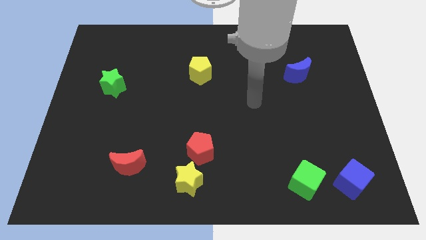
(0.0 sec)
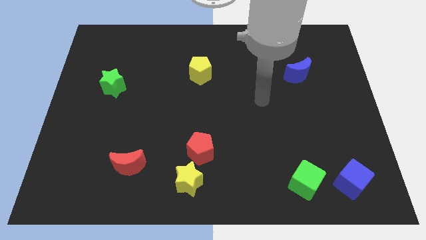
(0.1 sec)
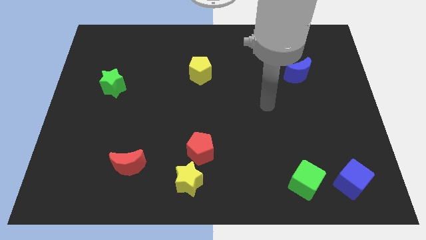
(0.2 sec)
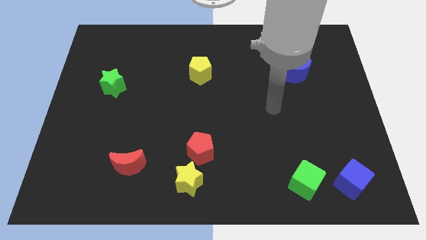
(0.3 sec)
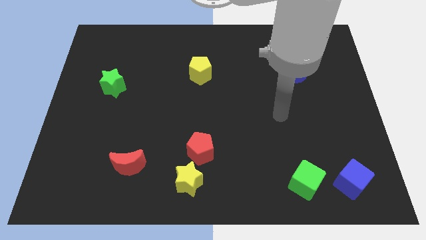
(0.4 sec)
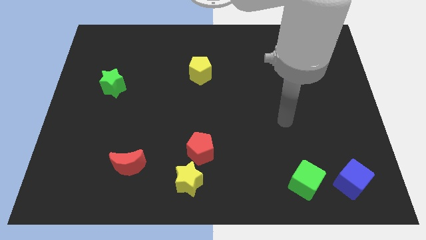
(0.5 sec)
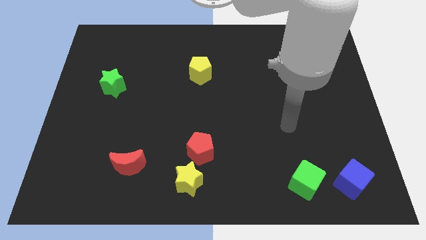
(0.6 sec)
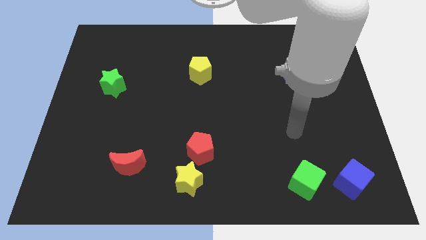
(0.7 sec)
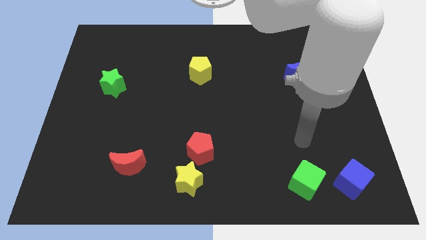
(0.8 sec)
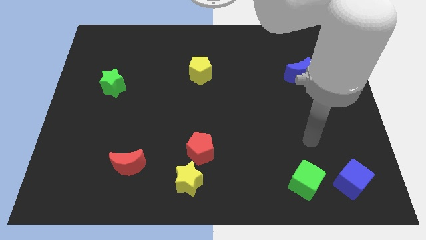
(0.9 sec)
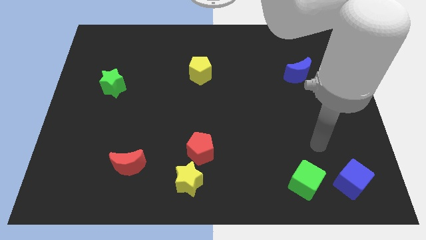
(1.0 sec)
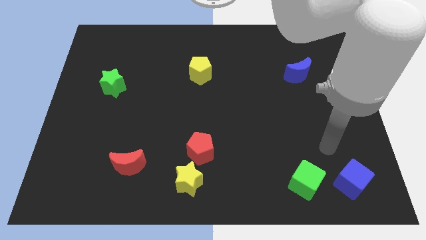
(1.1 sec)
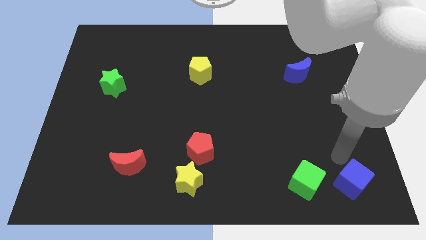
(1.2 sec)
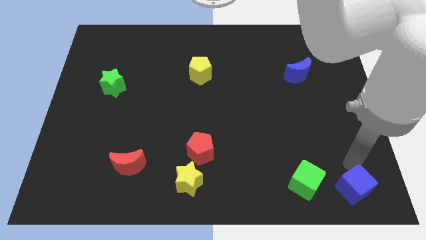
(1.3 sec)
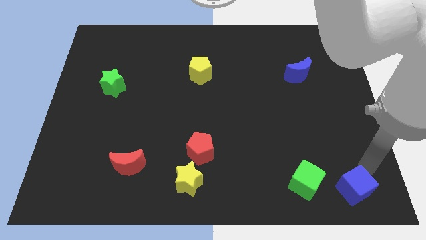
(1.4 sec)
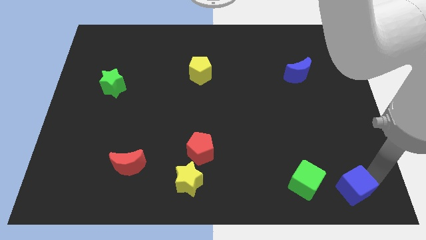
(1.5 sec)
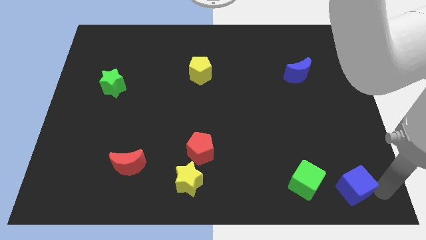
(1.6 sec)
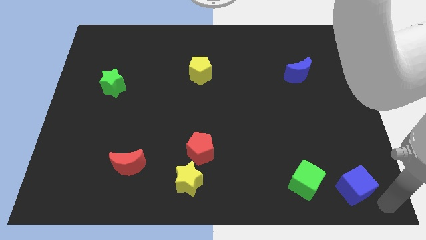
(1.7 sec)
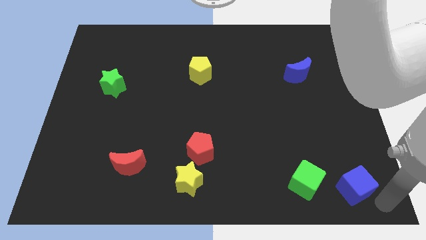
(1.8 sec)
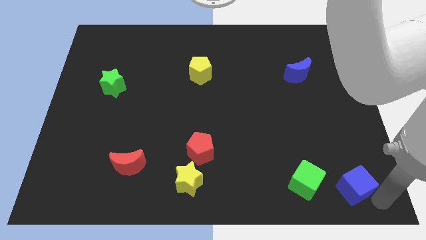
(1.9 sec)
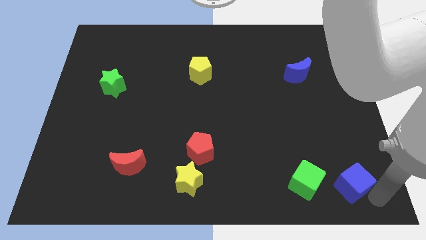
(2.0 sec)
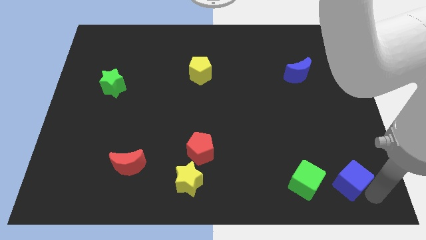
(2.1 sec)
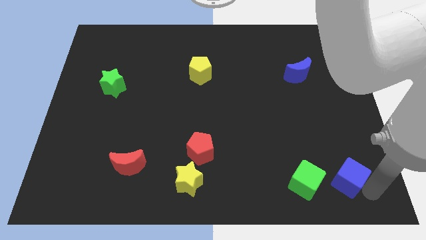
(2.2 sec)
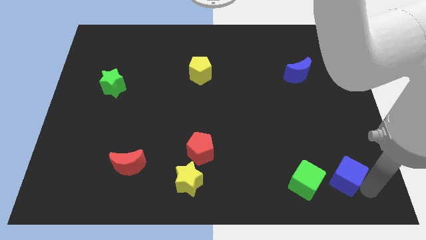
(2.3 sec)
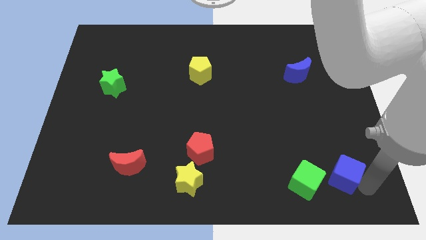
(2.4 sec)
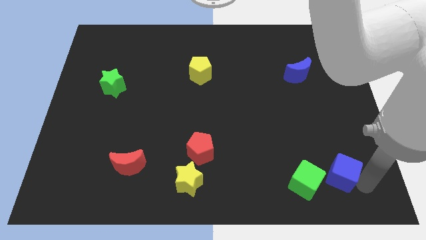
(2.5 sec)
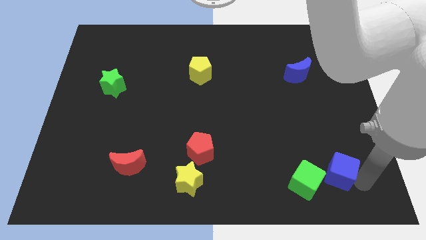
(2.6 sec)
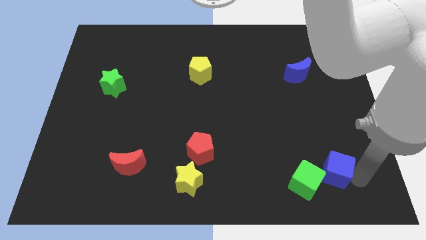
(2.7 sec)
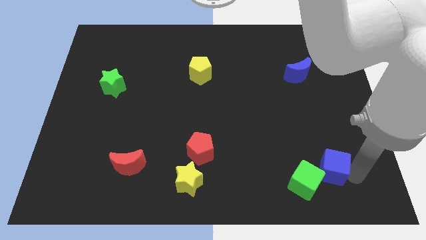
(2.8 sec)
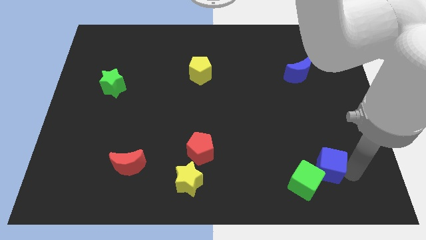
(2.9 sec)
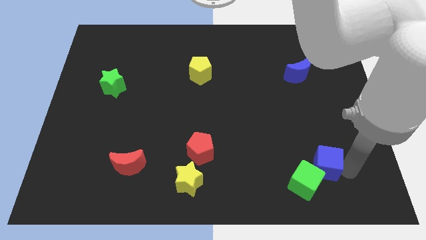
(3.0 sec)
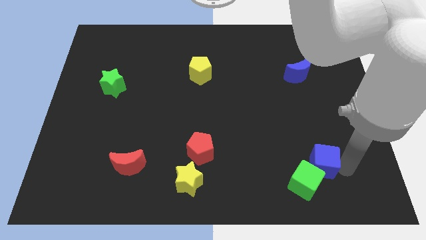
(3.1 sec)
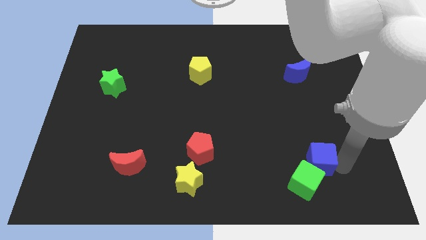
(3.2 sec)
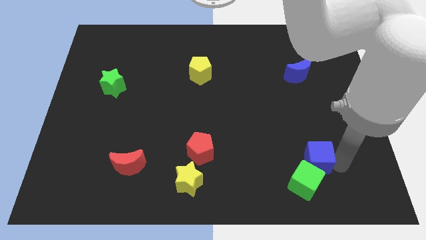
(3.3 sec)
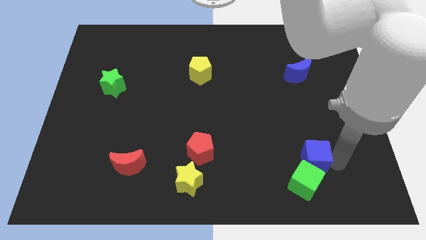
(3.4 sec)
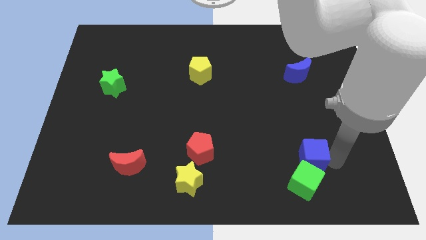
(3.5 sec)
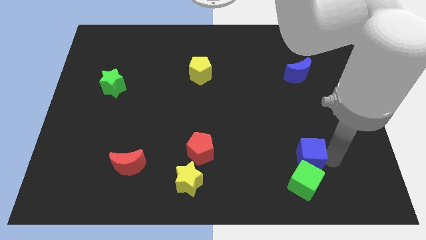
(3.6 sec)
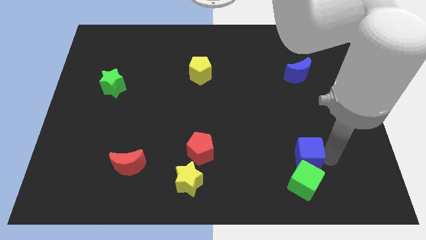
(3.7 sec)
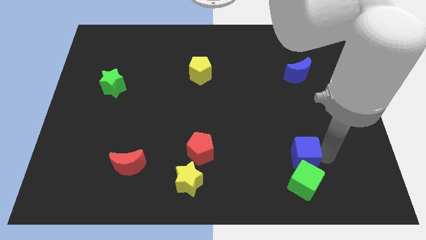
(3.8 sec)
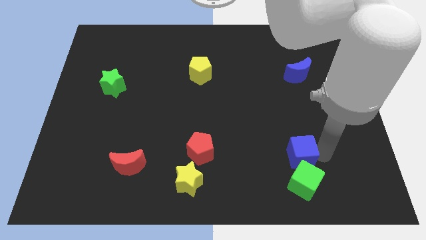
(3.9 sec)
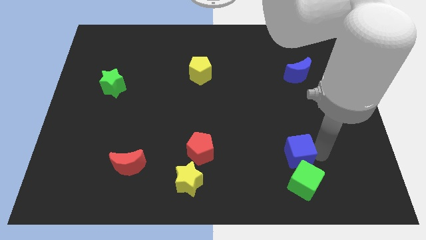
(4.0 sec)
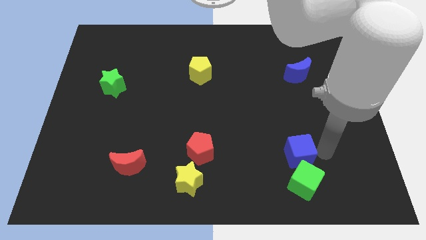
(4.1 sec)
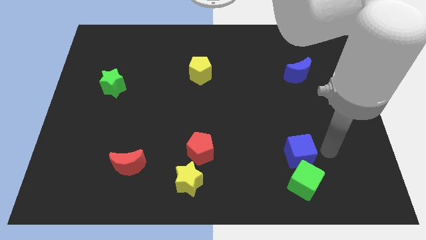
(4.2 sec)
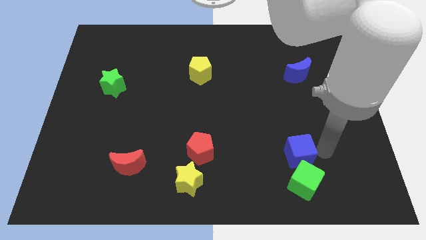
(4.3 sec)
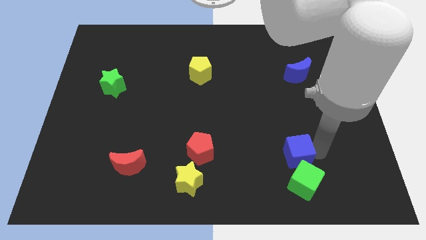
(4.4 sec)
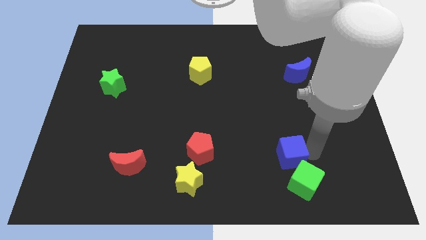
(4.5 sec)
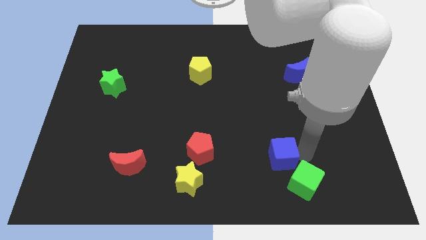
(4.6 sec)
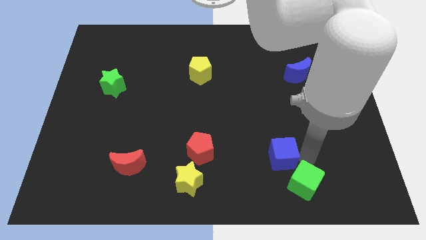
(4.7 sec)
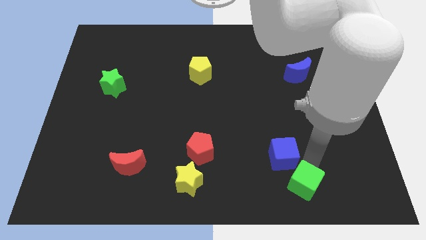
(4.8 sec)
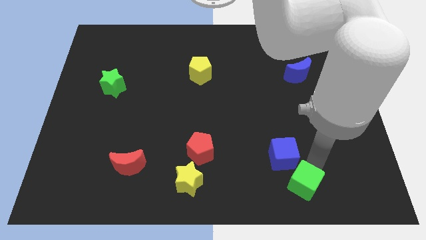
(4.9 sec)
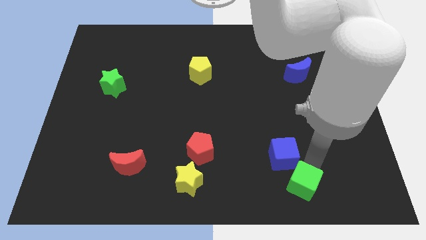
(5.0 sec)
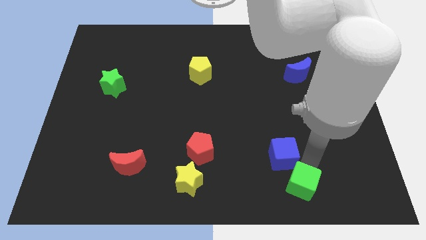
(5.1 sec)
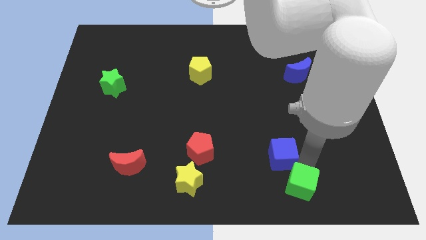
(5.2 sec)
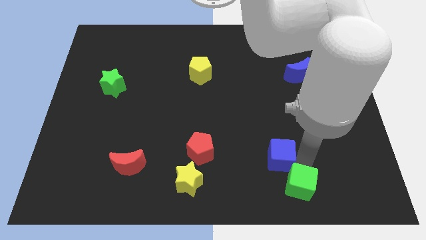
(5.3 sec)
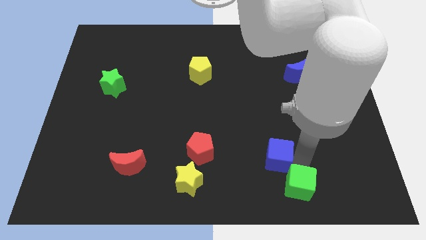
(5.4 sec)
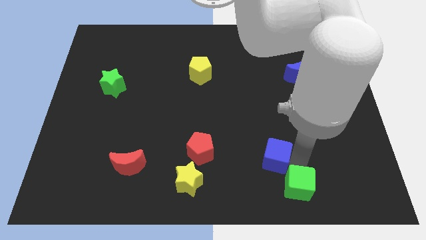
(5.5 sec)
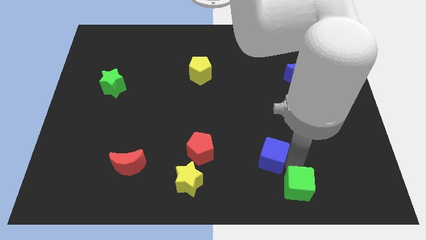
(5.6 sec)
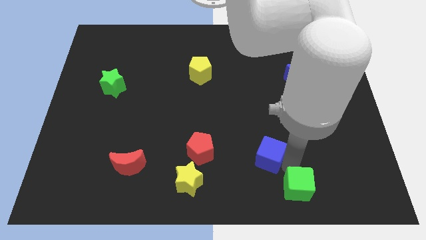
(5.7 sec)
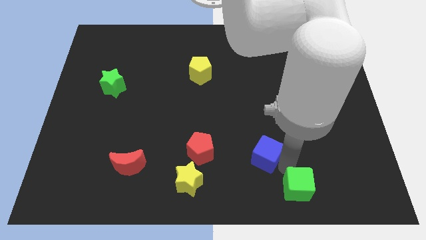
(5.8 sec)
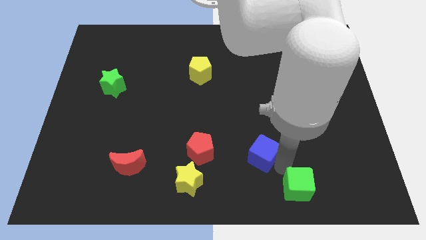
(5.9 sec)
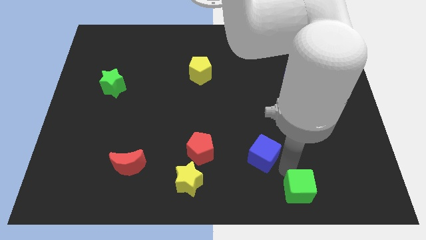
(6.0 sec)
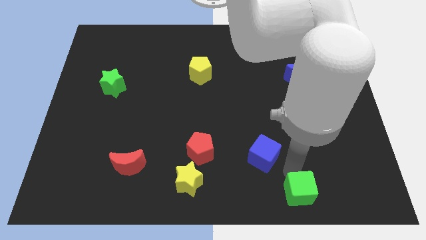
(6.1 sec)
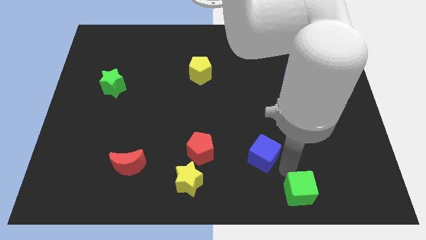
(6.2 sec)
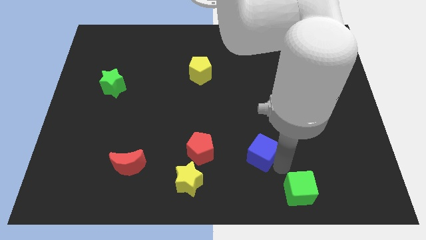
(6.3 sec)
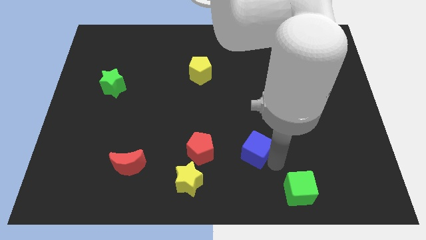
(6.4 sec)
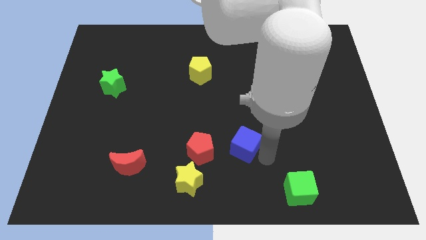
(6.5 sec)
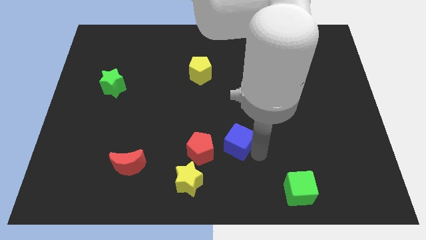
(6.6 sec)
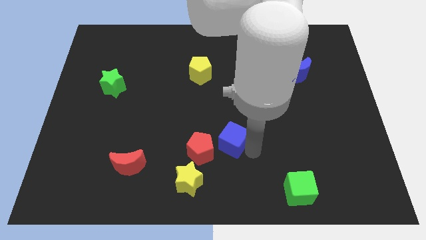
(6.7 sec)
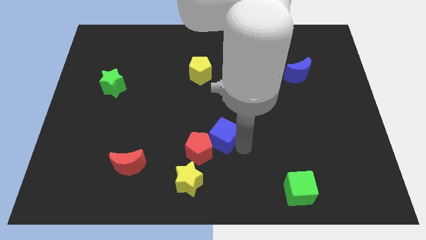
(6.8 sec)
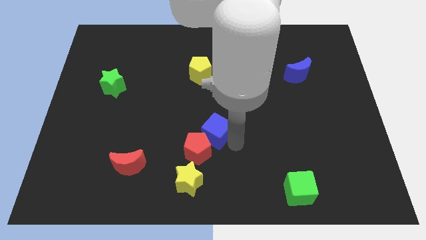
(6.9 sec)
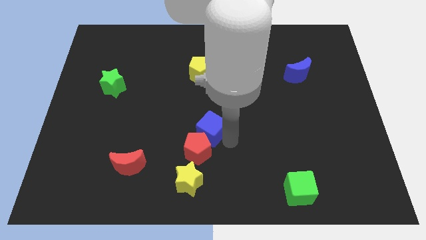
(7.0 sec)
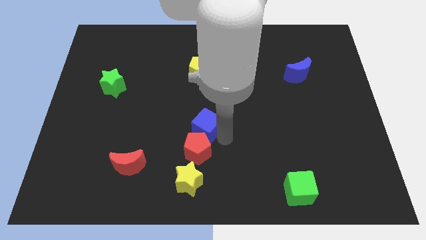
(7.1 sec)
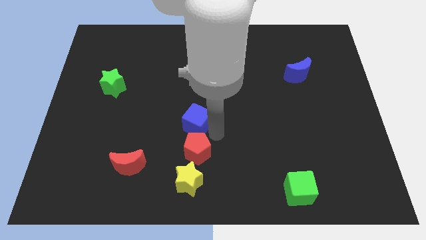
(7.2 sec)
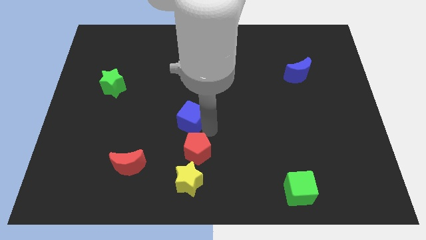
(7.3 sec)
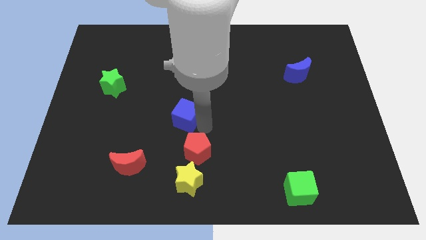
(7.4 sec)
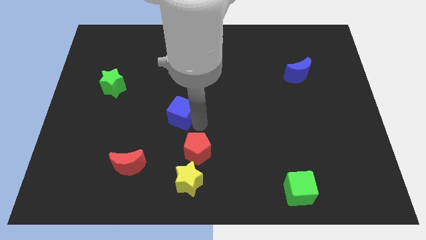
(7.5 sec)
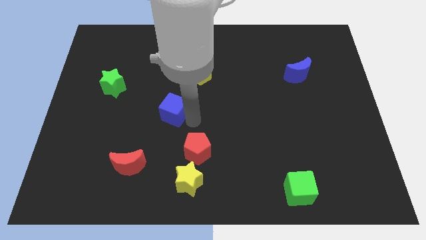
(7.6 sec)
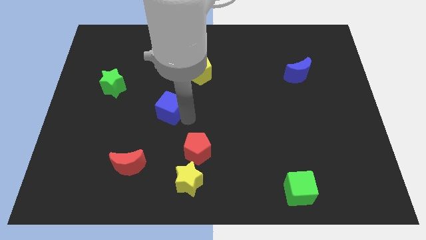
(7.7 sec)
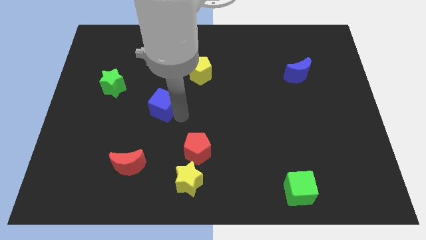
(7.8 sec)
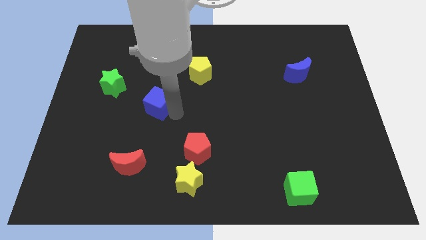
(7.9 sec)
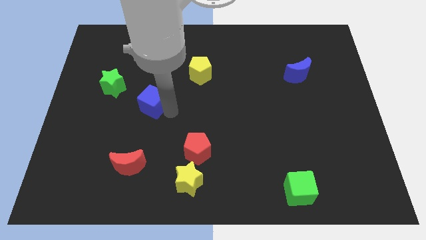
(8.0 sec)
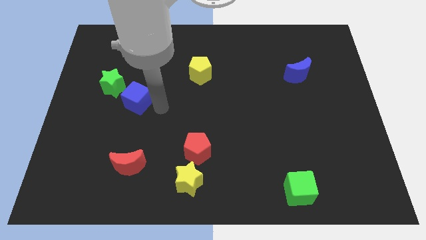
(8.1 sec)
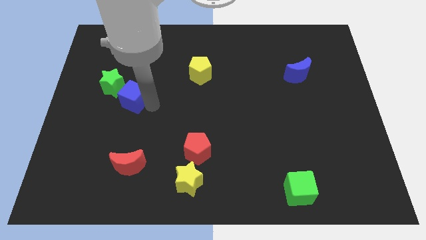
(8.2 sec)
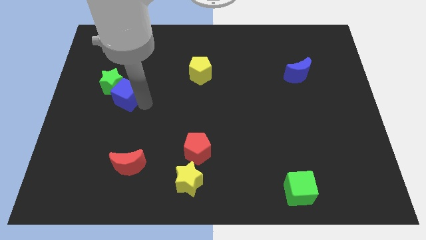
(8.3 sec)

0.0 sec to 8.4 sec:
move the blue cube close to the green star
